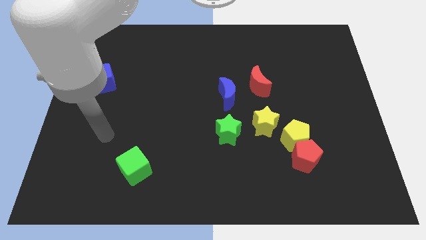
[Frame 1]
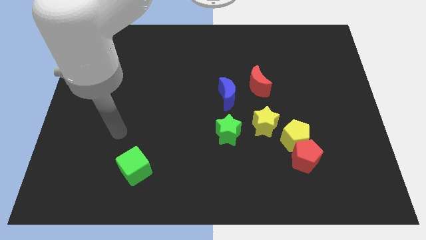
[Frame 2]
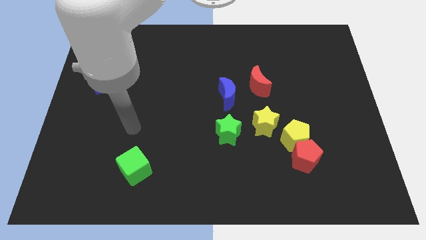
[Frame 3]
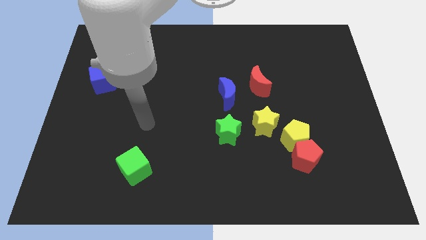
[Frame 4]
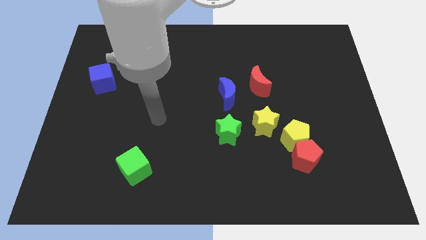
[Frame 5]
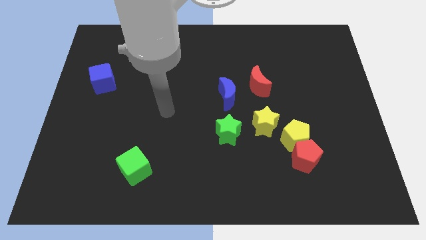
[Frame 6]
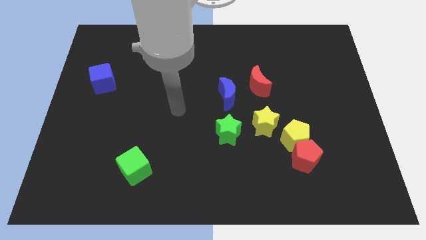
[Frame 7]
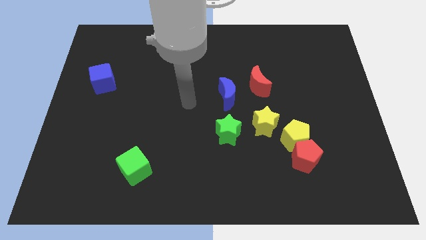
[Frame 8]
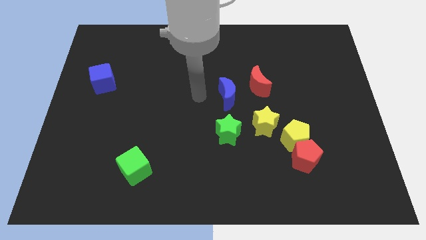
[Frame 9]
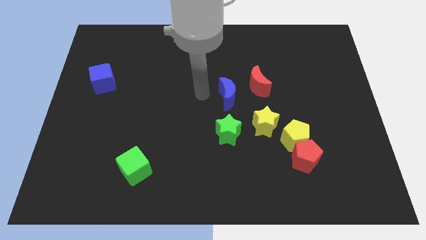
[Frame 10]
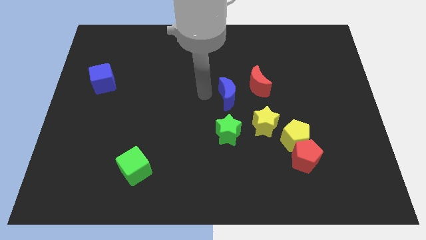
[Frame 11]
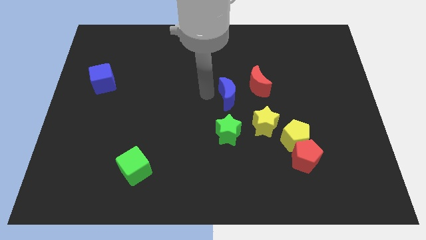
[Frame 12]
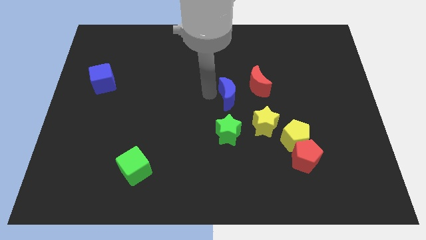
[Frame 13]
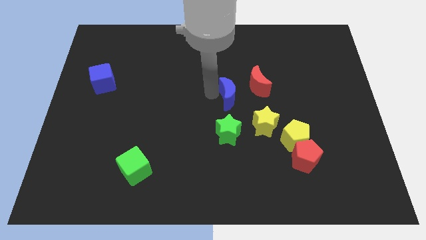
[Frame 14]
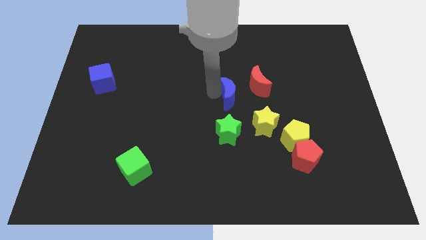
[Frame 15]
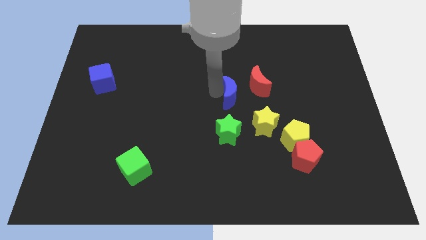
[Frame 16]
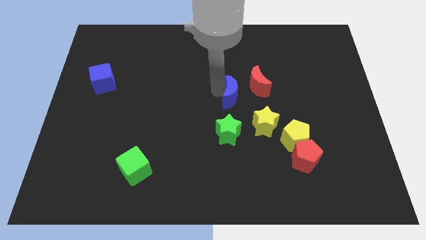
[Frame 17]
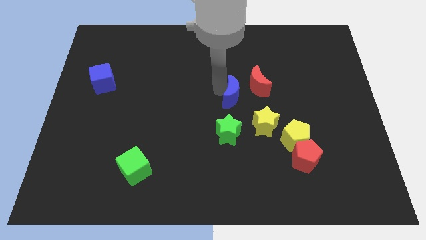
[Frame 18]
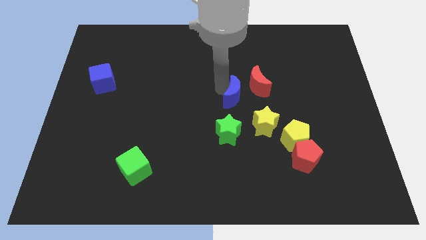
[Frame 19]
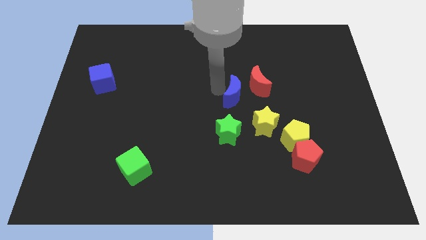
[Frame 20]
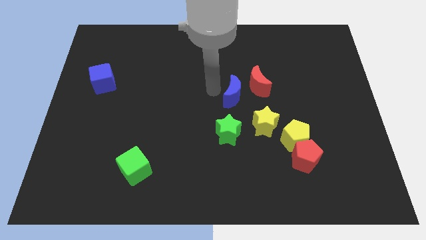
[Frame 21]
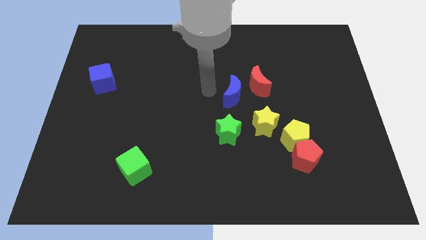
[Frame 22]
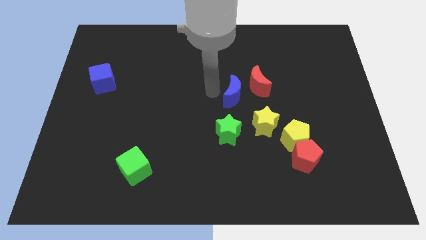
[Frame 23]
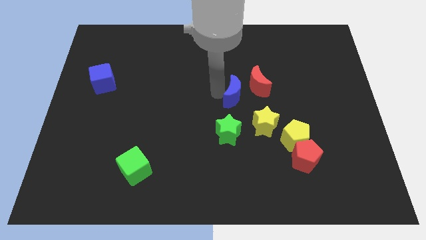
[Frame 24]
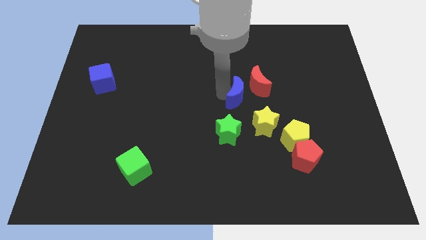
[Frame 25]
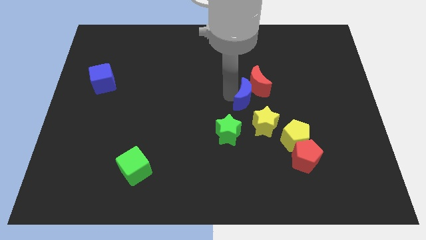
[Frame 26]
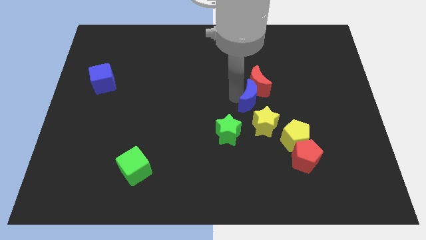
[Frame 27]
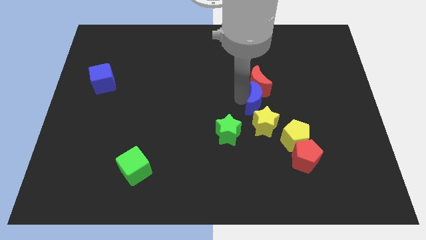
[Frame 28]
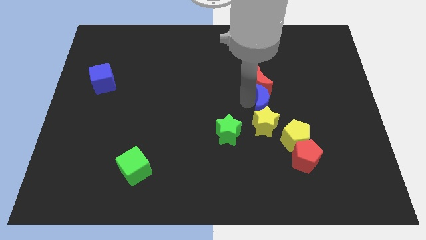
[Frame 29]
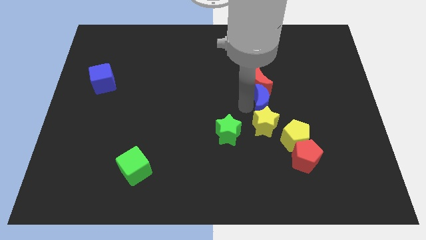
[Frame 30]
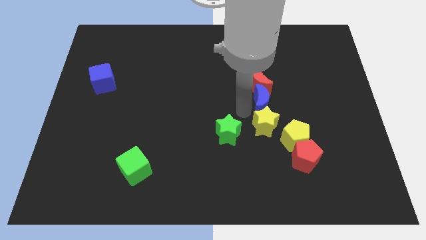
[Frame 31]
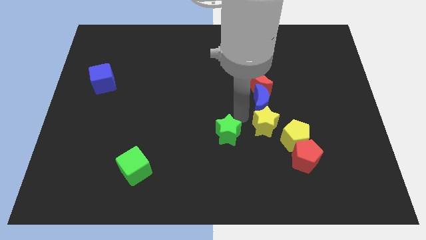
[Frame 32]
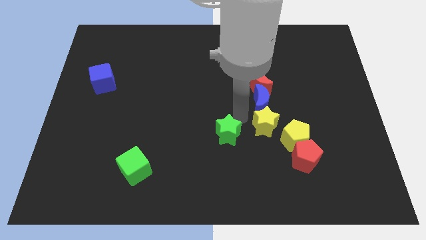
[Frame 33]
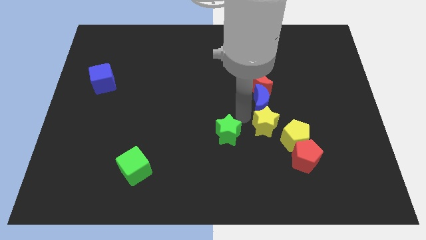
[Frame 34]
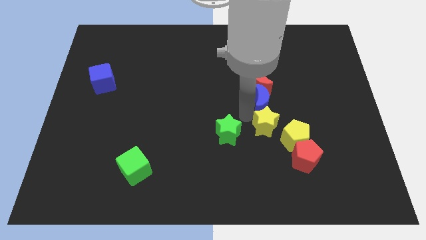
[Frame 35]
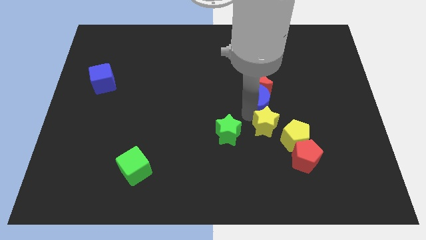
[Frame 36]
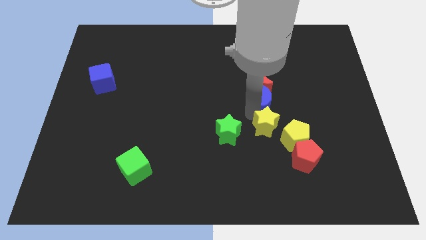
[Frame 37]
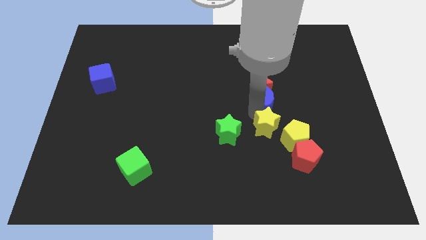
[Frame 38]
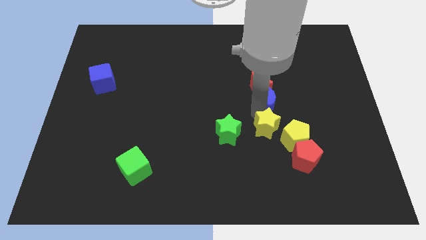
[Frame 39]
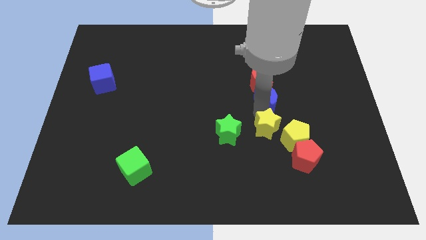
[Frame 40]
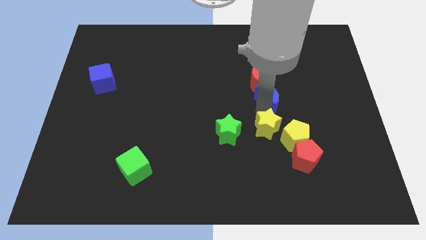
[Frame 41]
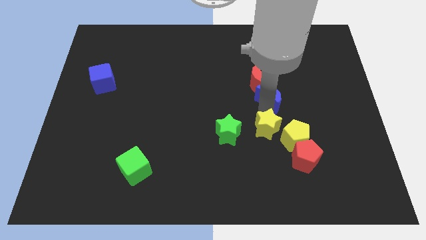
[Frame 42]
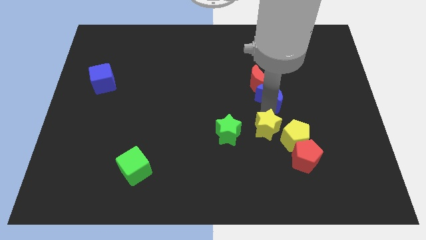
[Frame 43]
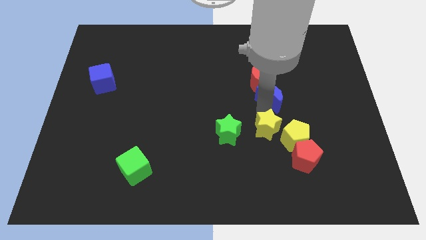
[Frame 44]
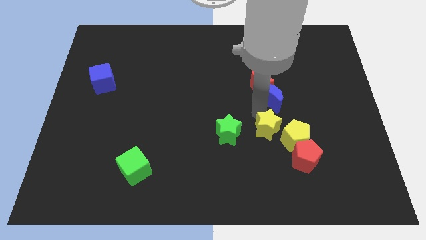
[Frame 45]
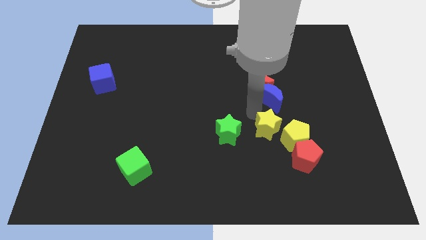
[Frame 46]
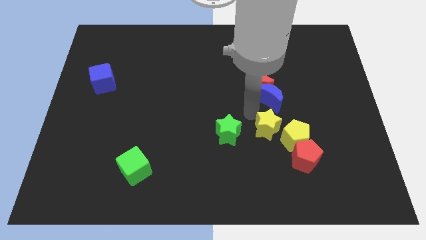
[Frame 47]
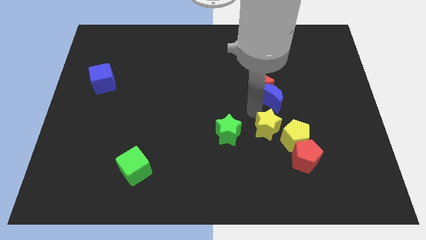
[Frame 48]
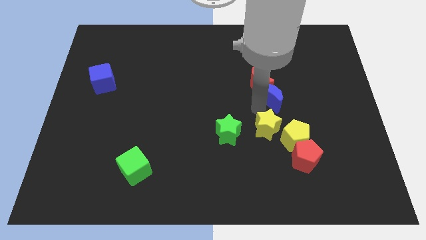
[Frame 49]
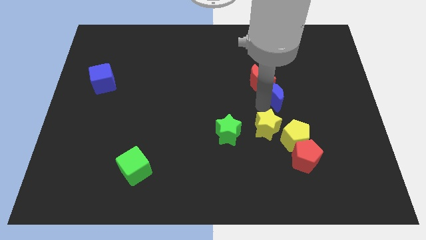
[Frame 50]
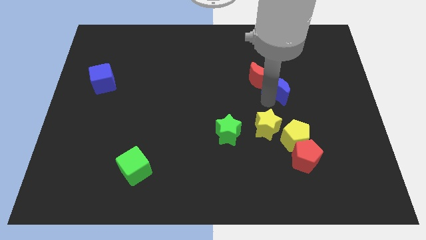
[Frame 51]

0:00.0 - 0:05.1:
put the blue moon to the right side of the red moon

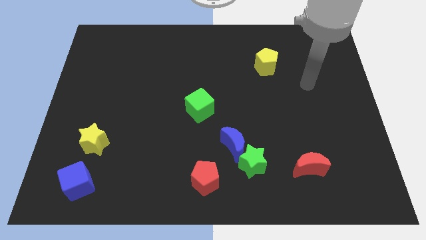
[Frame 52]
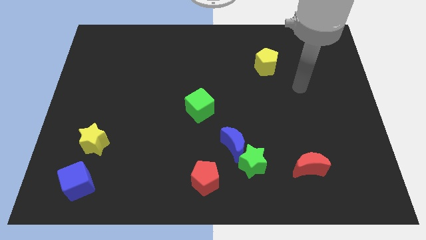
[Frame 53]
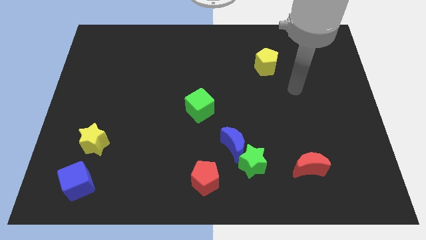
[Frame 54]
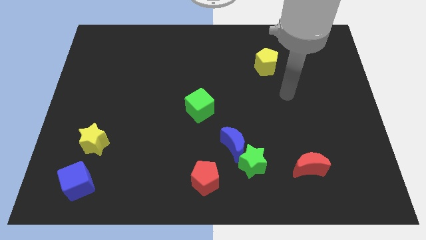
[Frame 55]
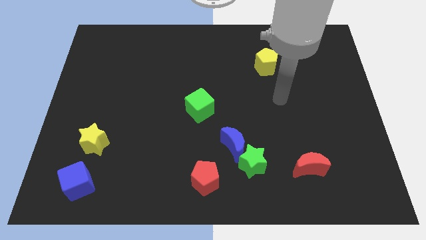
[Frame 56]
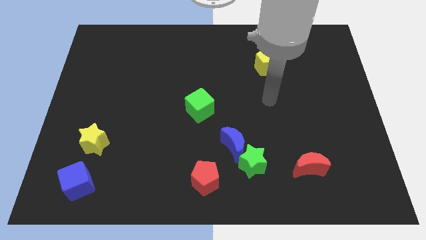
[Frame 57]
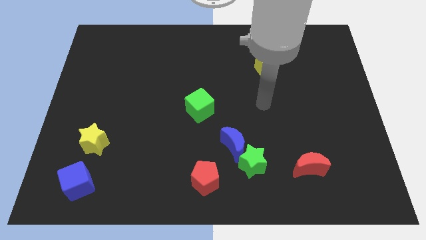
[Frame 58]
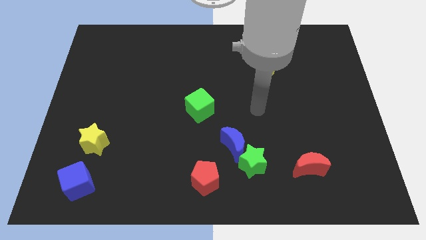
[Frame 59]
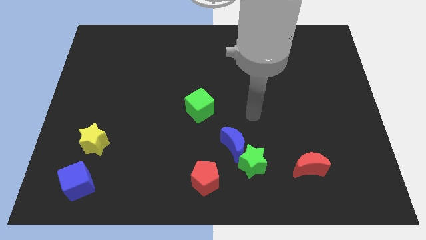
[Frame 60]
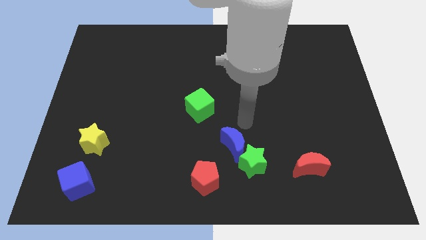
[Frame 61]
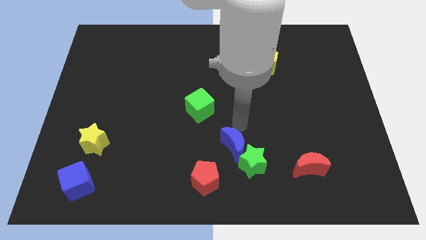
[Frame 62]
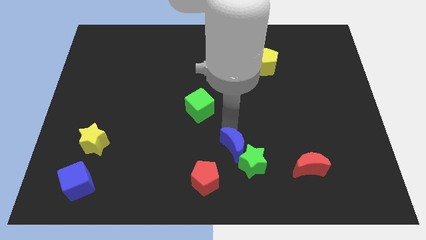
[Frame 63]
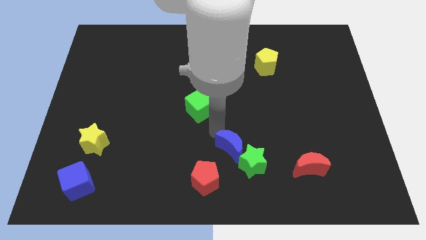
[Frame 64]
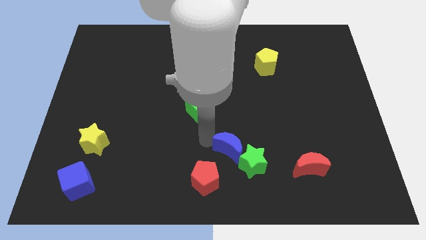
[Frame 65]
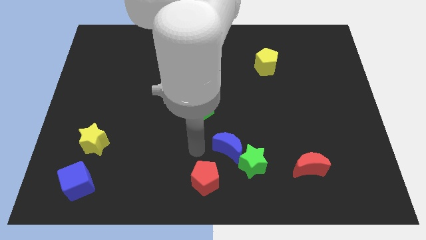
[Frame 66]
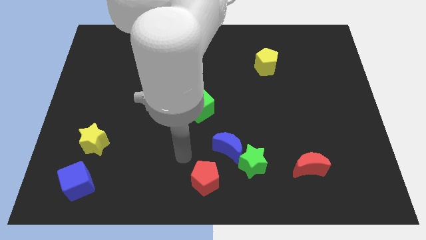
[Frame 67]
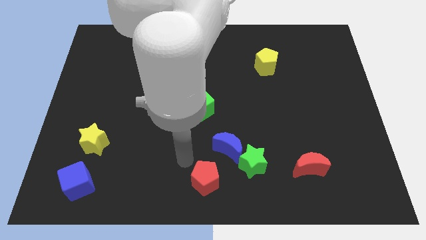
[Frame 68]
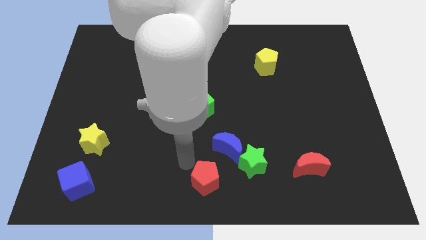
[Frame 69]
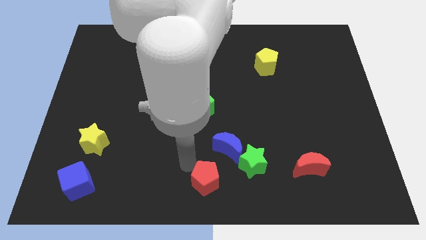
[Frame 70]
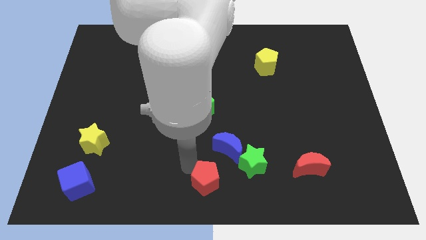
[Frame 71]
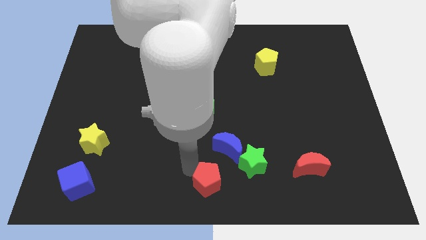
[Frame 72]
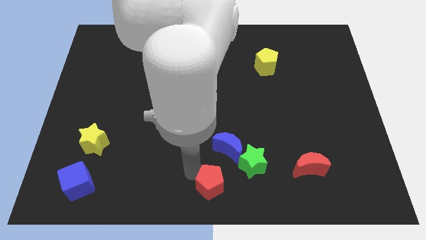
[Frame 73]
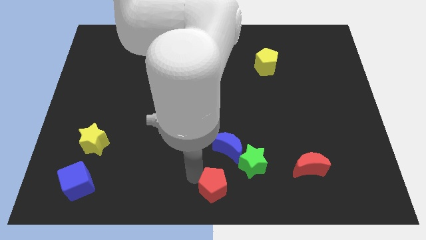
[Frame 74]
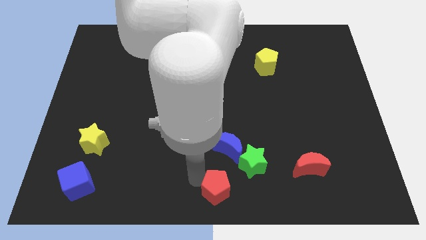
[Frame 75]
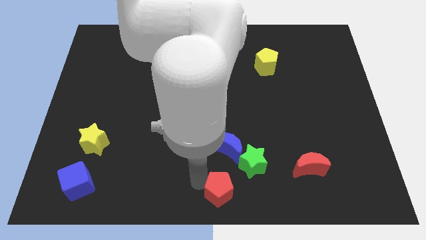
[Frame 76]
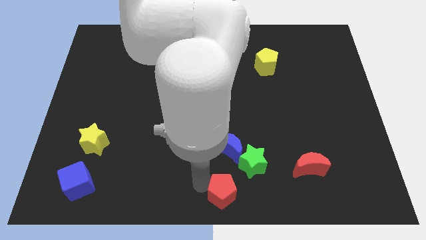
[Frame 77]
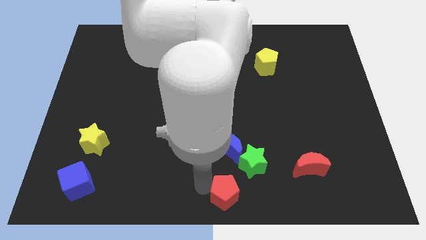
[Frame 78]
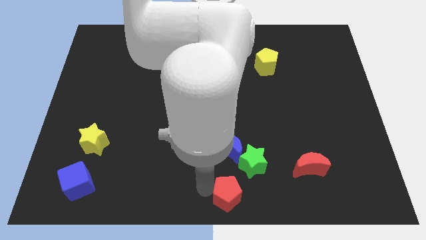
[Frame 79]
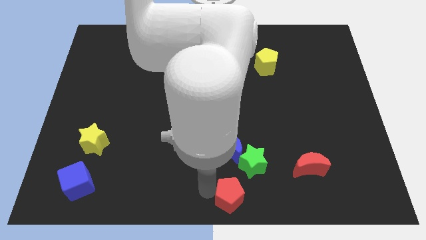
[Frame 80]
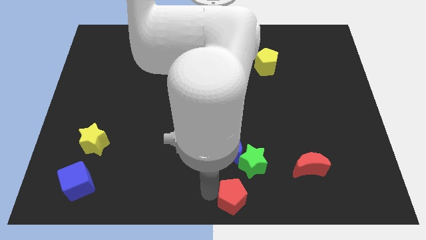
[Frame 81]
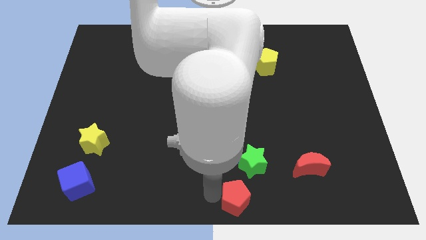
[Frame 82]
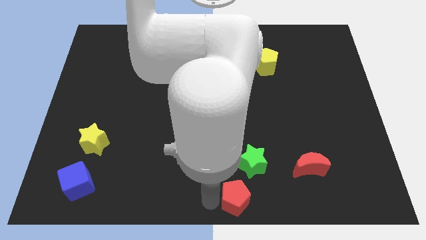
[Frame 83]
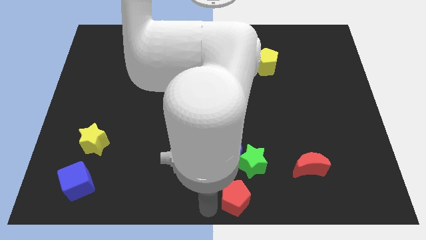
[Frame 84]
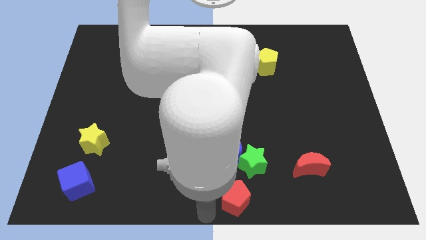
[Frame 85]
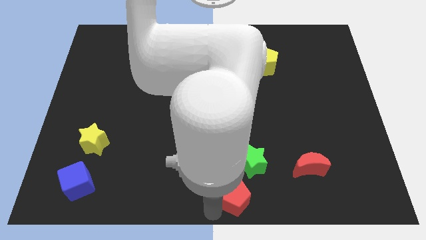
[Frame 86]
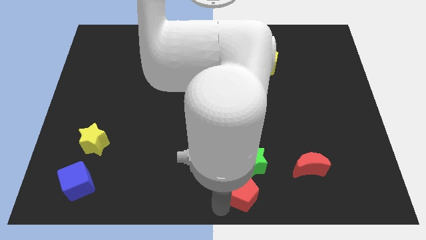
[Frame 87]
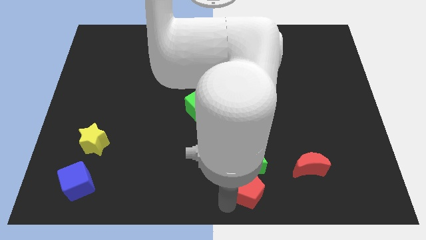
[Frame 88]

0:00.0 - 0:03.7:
put the red pentagon to the bottom right side of the blue moon
